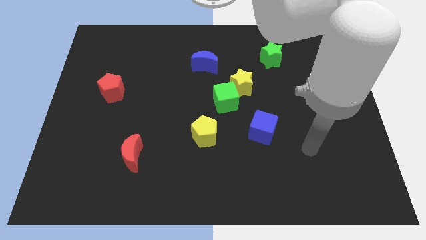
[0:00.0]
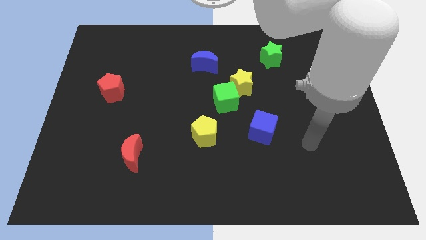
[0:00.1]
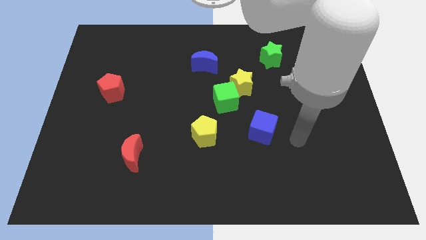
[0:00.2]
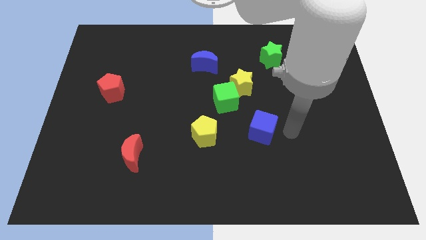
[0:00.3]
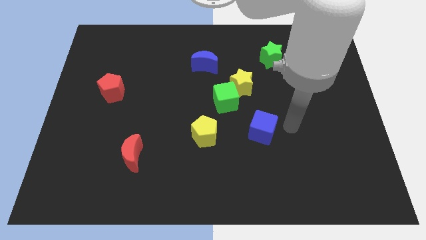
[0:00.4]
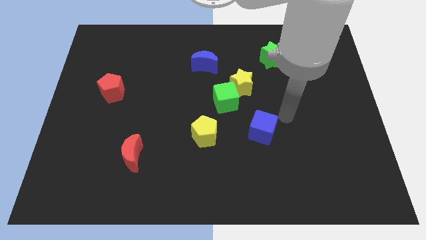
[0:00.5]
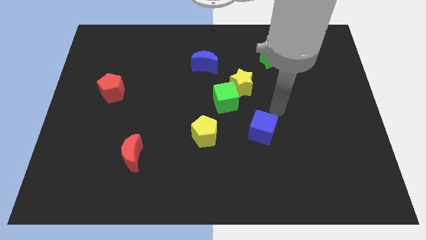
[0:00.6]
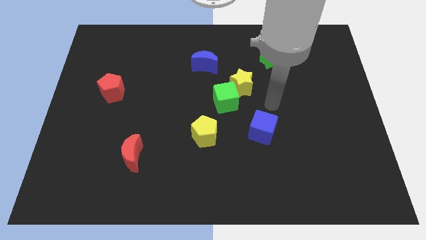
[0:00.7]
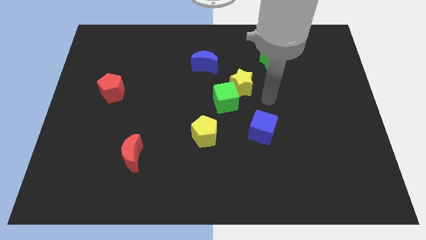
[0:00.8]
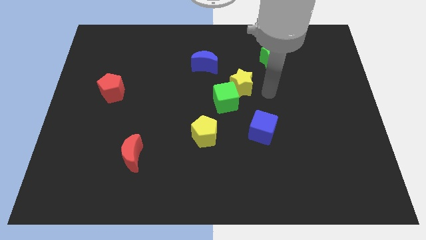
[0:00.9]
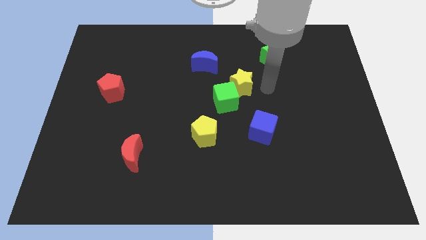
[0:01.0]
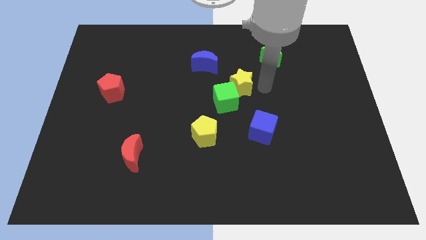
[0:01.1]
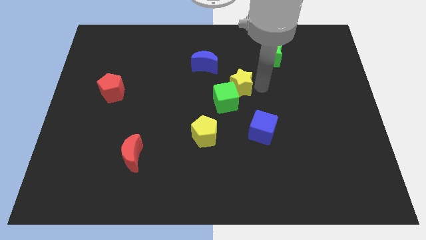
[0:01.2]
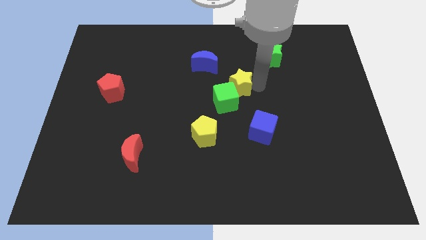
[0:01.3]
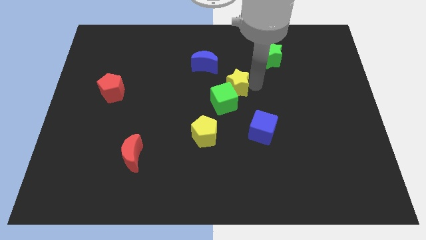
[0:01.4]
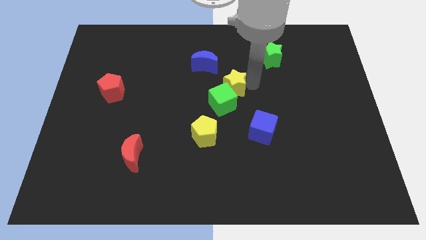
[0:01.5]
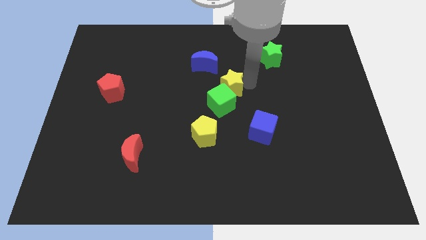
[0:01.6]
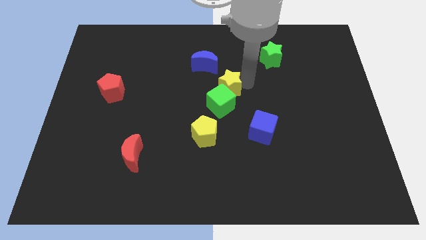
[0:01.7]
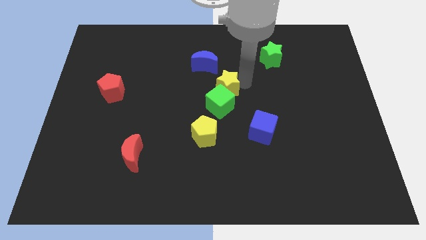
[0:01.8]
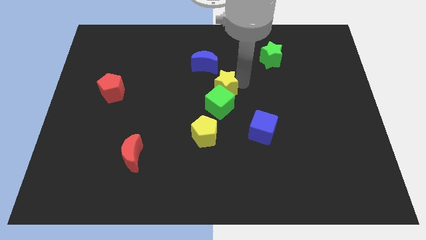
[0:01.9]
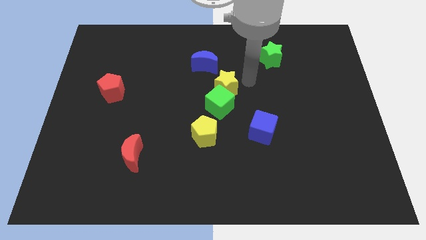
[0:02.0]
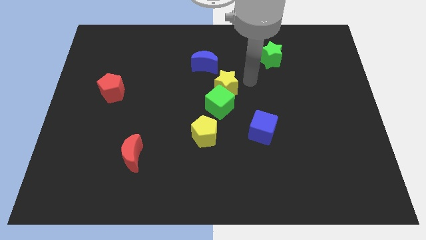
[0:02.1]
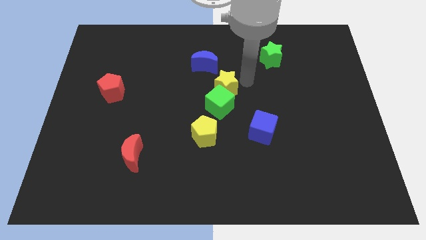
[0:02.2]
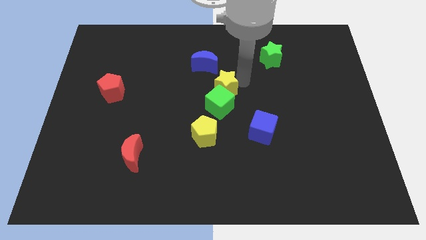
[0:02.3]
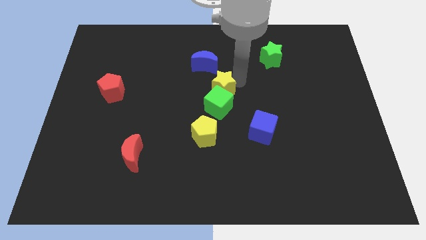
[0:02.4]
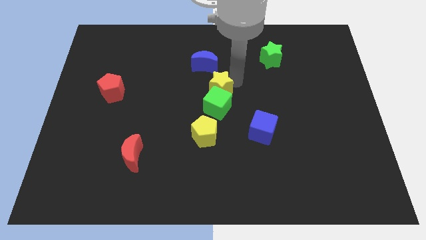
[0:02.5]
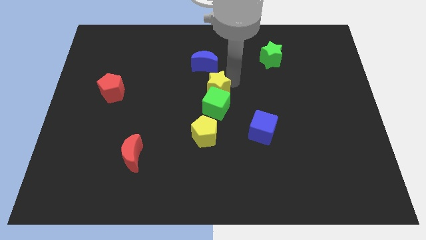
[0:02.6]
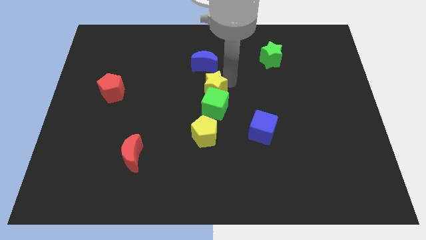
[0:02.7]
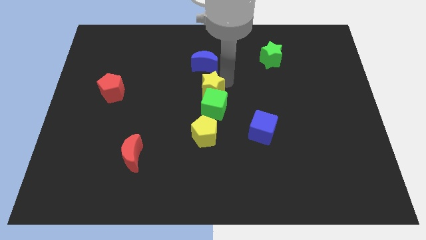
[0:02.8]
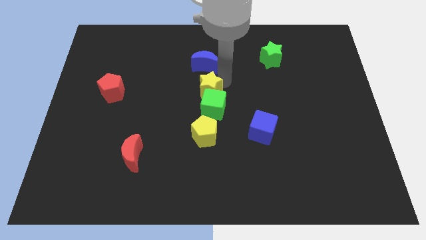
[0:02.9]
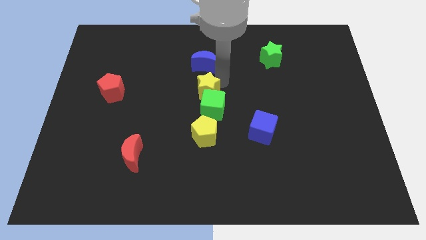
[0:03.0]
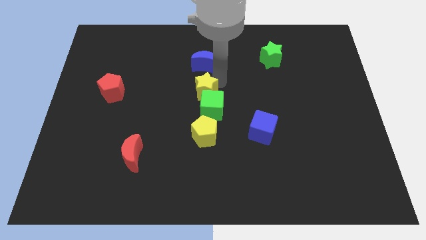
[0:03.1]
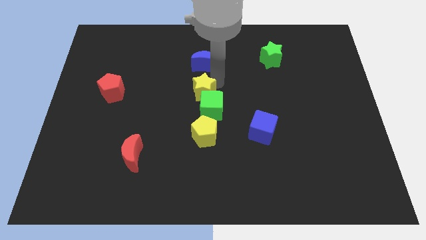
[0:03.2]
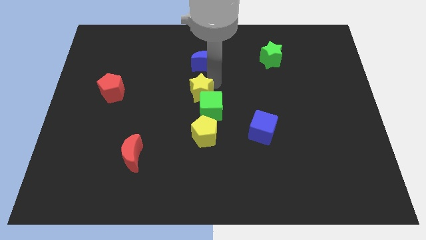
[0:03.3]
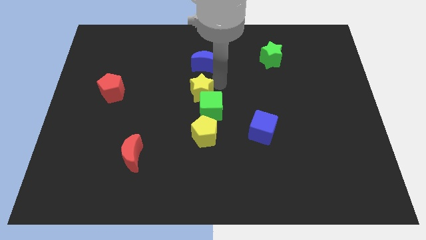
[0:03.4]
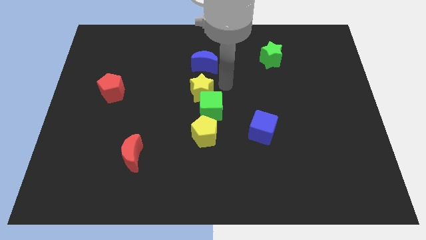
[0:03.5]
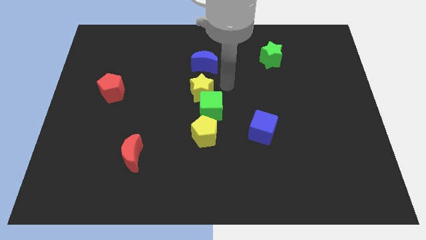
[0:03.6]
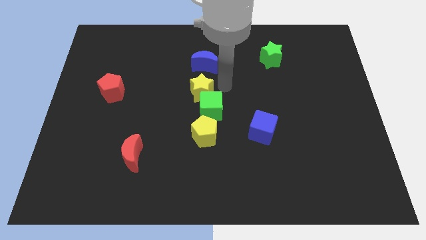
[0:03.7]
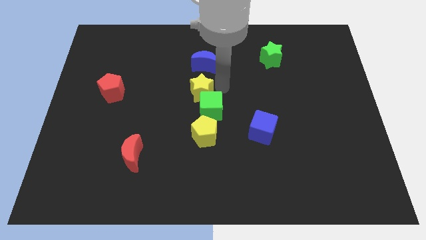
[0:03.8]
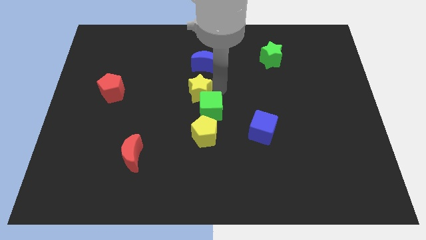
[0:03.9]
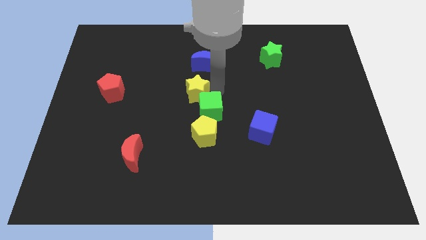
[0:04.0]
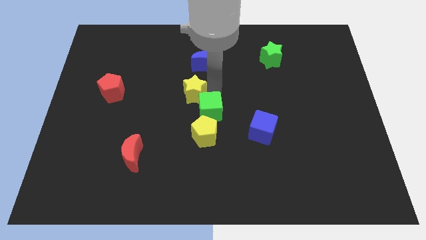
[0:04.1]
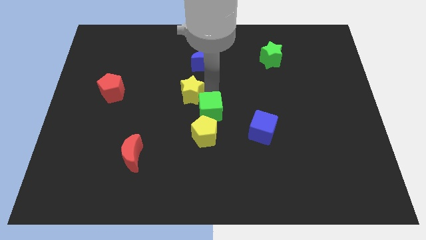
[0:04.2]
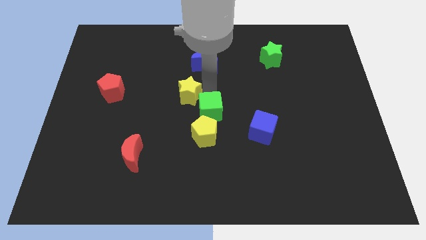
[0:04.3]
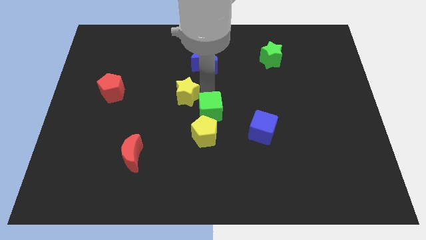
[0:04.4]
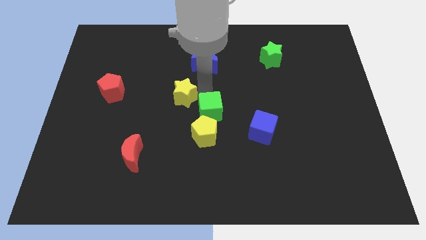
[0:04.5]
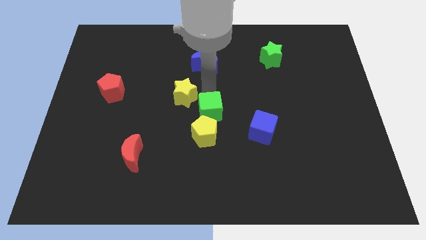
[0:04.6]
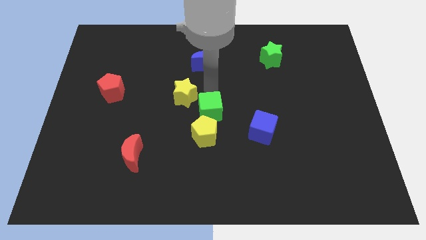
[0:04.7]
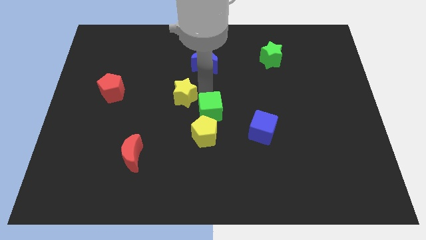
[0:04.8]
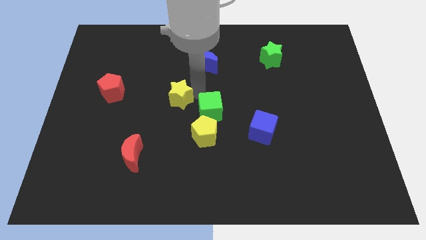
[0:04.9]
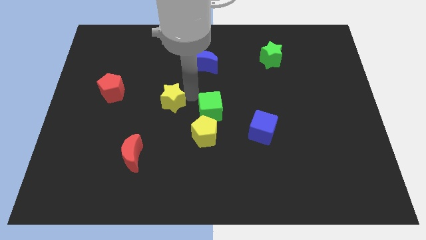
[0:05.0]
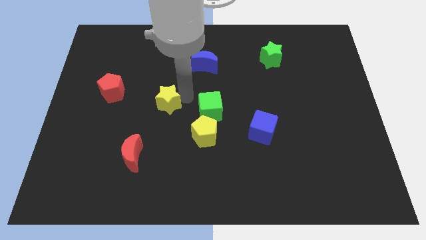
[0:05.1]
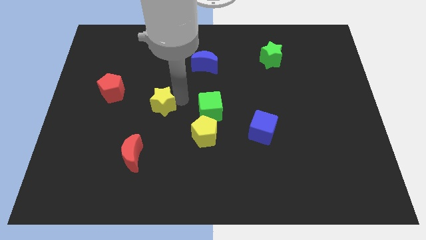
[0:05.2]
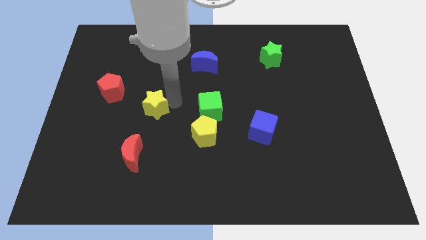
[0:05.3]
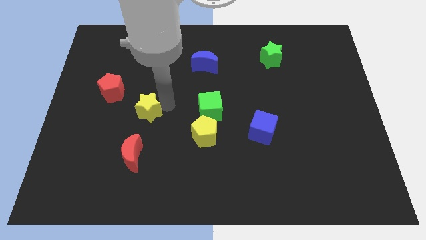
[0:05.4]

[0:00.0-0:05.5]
move the yellow star to the bottom right of the red pentagon

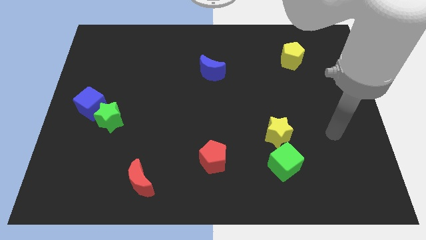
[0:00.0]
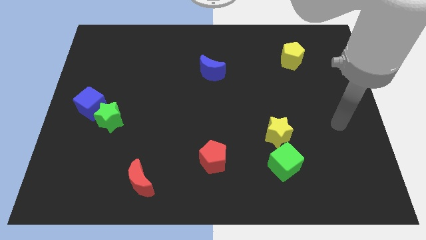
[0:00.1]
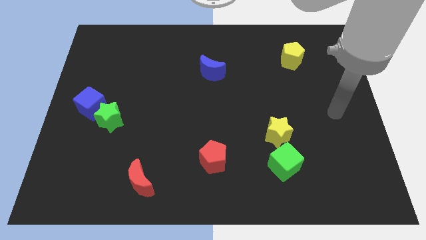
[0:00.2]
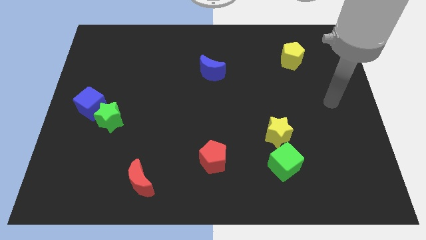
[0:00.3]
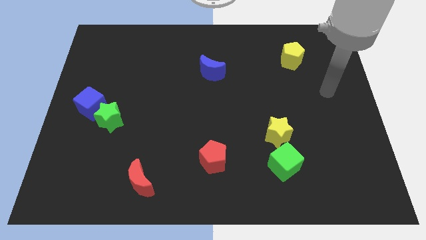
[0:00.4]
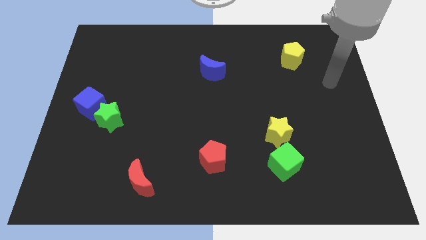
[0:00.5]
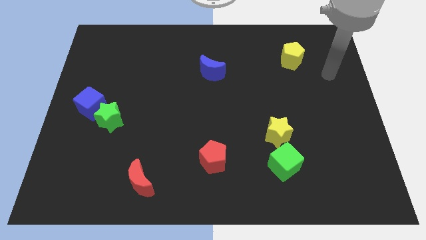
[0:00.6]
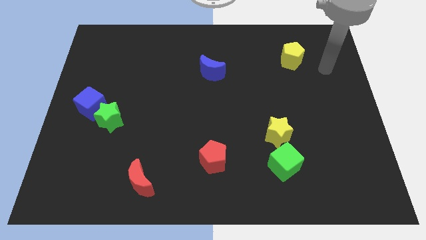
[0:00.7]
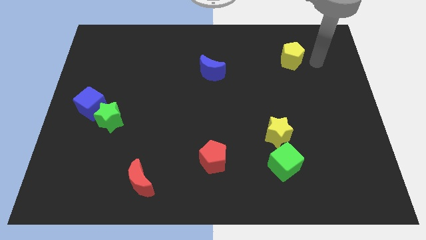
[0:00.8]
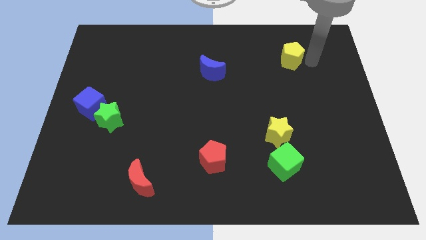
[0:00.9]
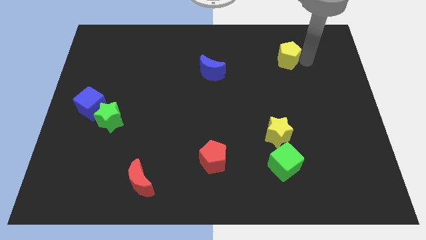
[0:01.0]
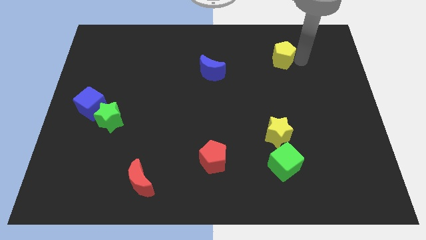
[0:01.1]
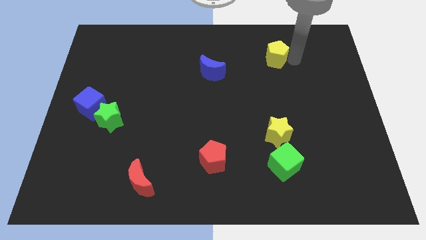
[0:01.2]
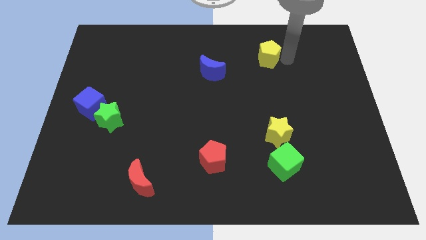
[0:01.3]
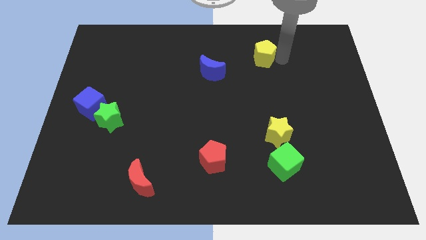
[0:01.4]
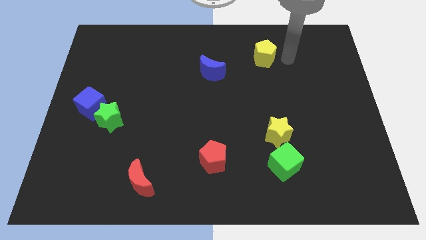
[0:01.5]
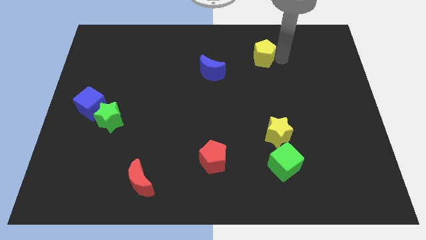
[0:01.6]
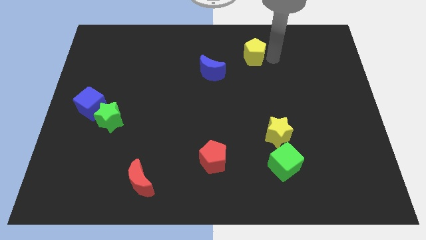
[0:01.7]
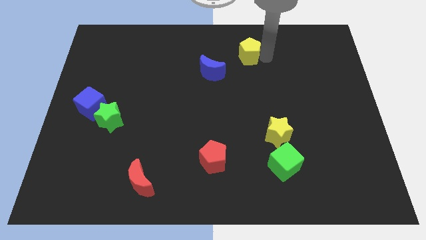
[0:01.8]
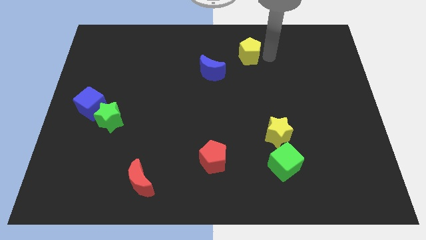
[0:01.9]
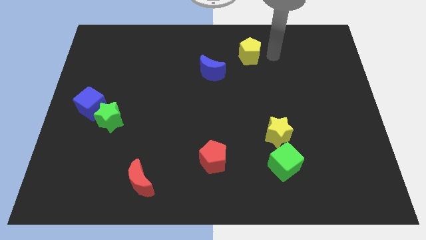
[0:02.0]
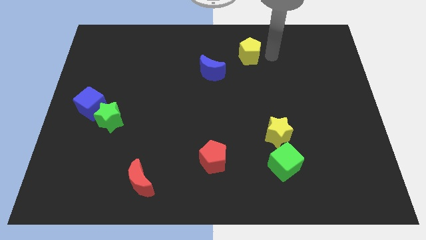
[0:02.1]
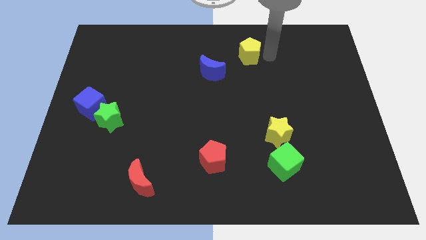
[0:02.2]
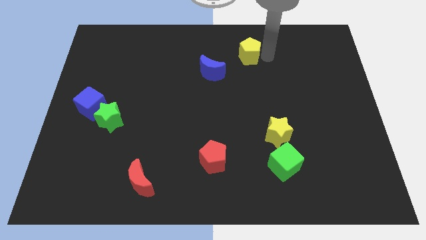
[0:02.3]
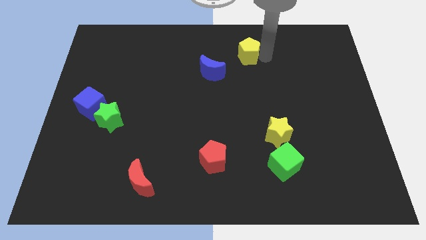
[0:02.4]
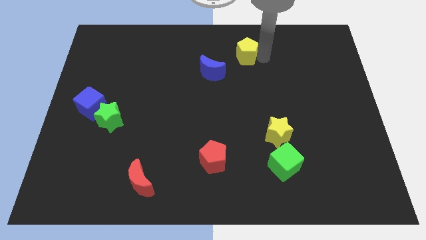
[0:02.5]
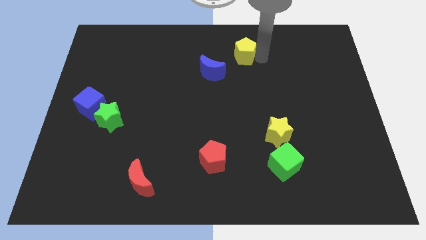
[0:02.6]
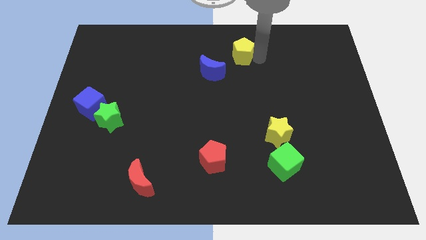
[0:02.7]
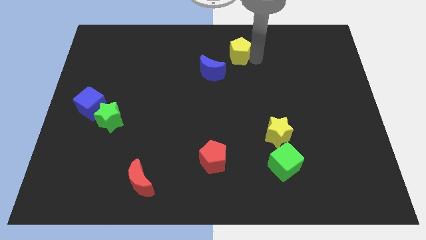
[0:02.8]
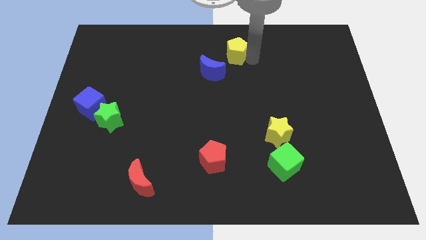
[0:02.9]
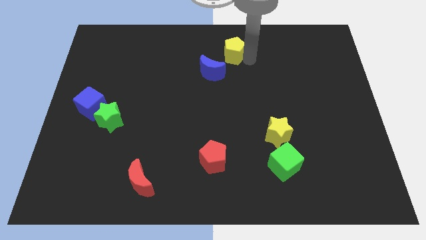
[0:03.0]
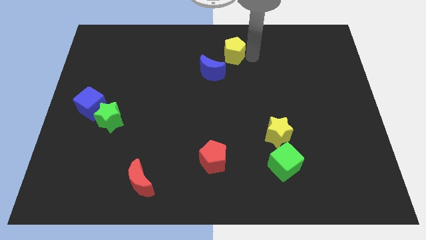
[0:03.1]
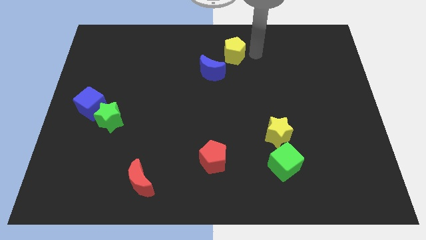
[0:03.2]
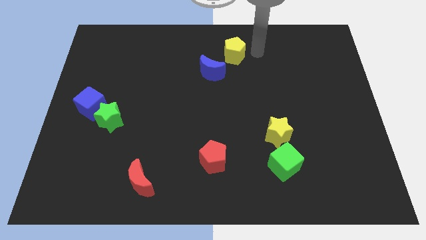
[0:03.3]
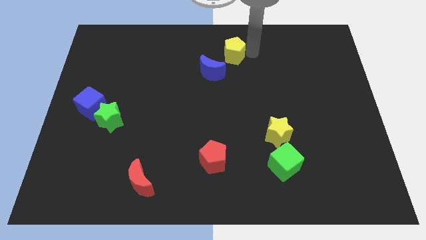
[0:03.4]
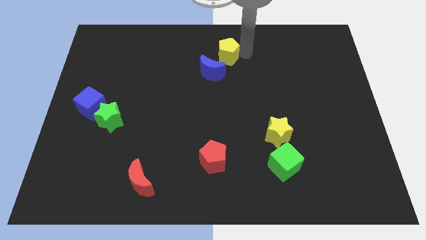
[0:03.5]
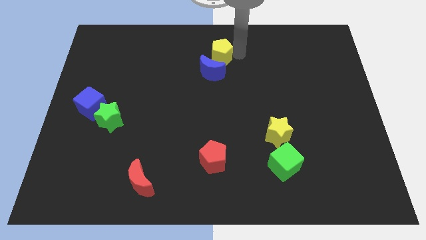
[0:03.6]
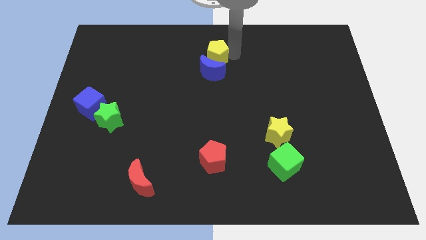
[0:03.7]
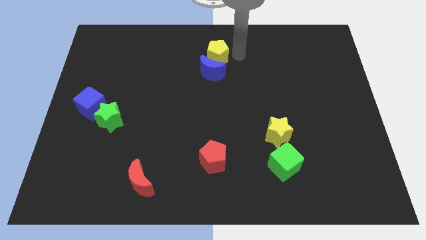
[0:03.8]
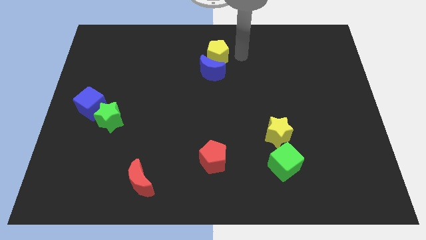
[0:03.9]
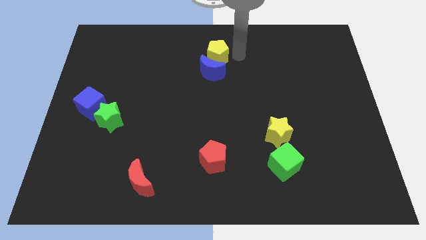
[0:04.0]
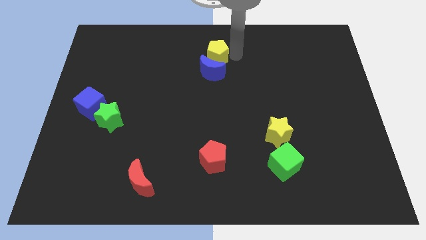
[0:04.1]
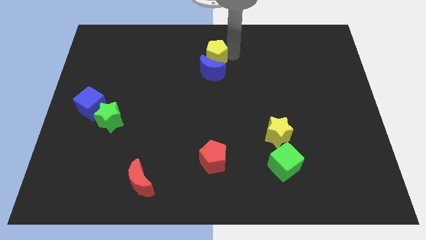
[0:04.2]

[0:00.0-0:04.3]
slide the yellow pentagon diagonally up and to the left of the blue moon
